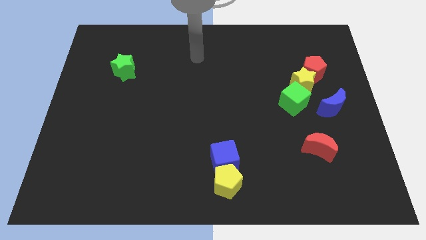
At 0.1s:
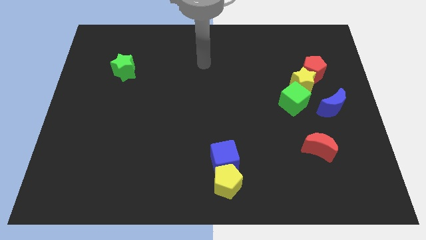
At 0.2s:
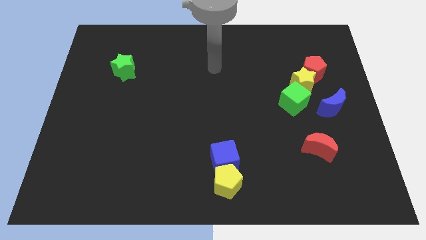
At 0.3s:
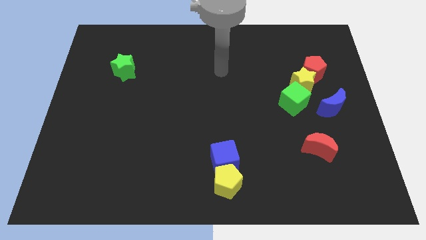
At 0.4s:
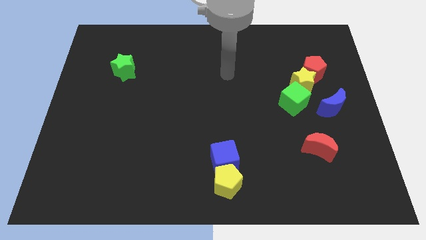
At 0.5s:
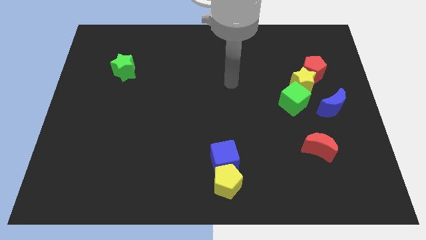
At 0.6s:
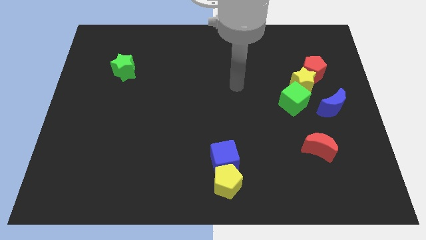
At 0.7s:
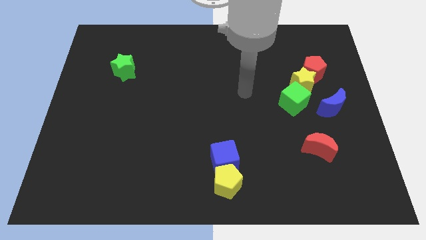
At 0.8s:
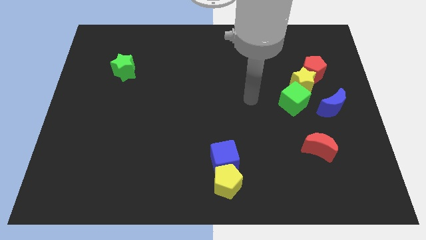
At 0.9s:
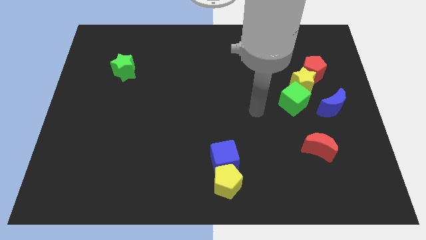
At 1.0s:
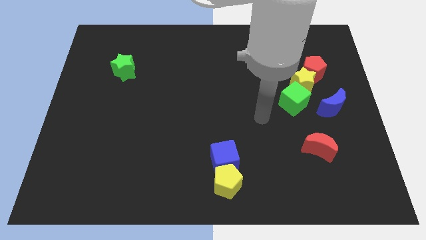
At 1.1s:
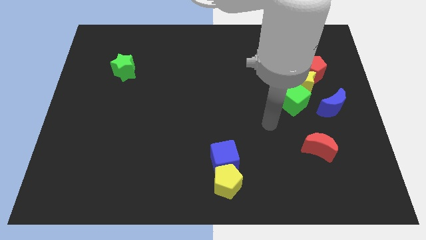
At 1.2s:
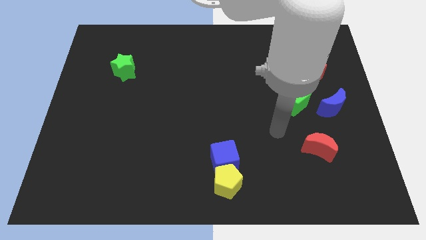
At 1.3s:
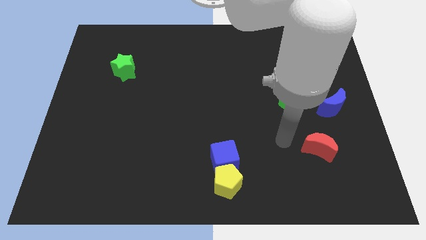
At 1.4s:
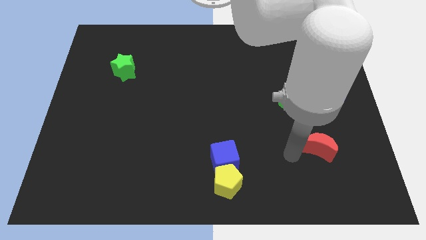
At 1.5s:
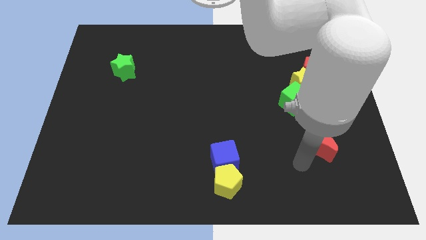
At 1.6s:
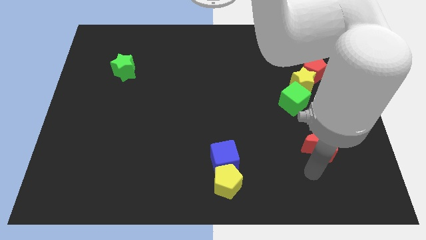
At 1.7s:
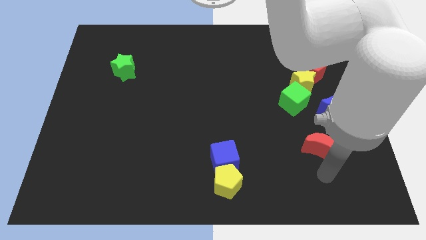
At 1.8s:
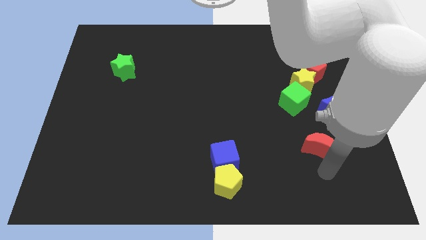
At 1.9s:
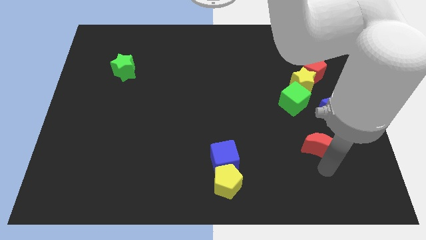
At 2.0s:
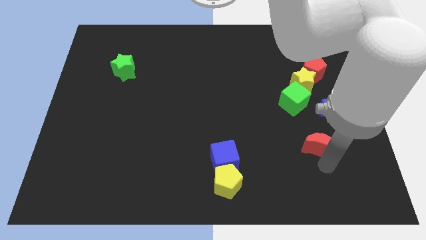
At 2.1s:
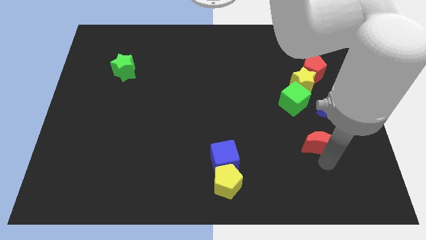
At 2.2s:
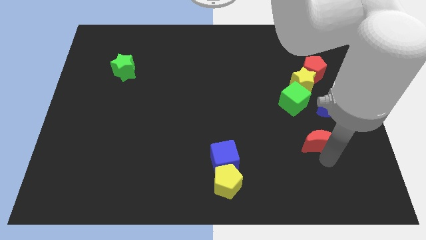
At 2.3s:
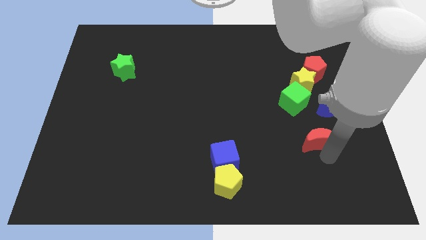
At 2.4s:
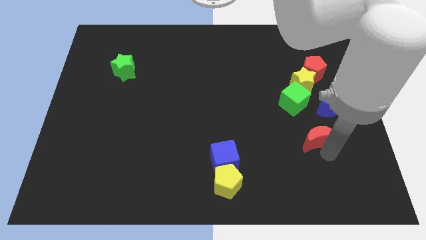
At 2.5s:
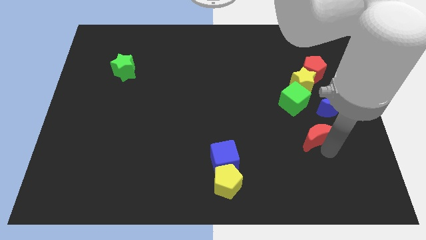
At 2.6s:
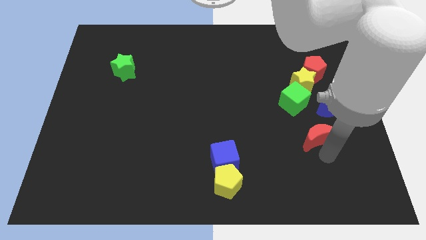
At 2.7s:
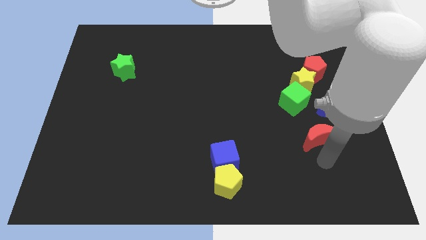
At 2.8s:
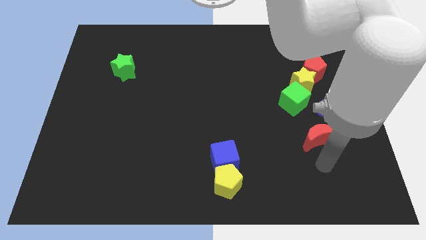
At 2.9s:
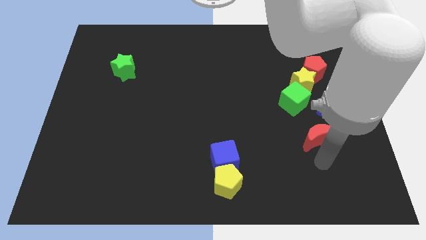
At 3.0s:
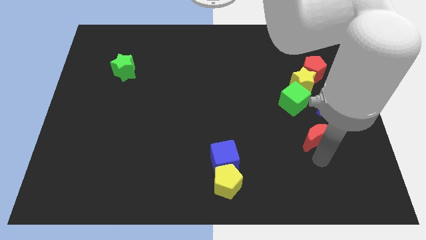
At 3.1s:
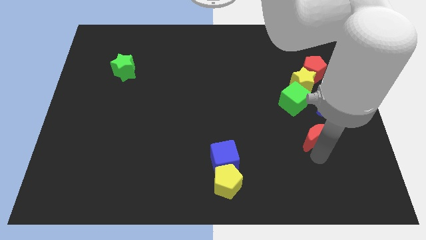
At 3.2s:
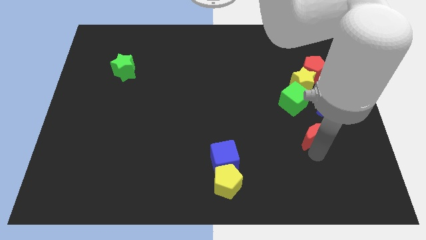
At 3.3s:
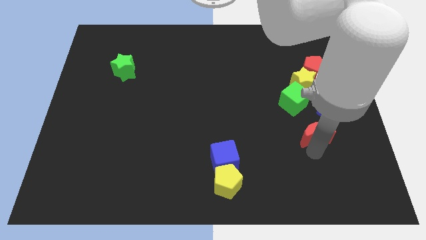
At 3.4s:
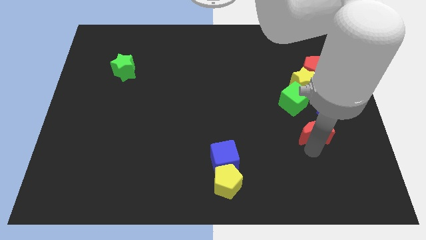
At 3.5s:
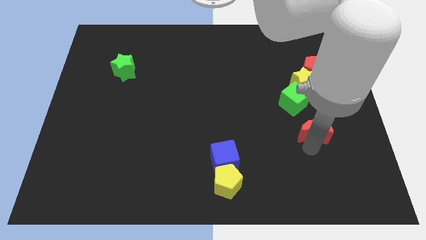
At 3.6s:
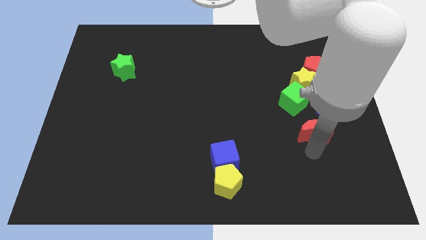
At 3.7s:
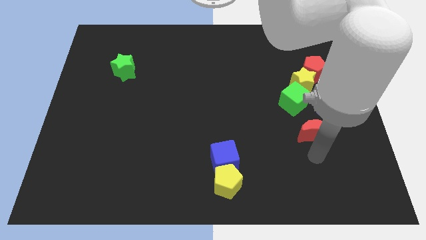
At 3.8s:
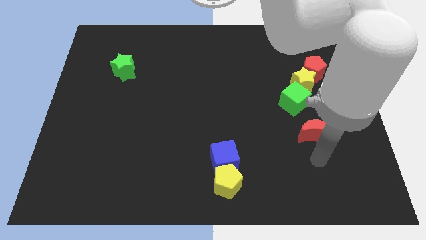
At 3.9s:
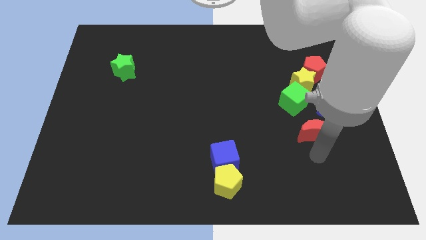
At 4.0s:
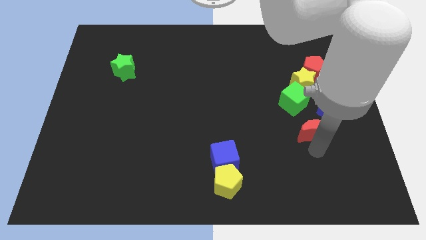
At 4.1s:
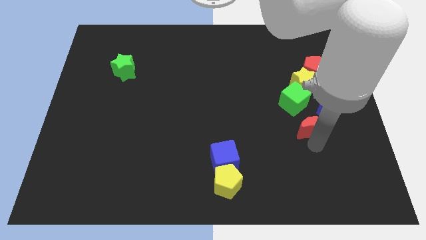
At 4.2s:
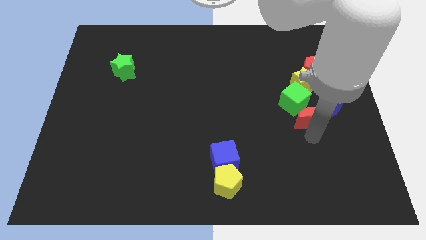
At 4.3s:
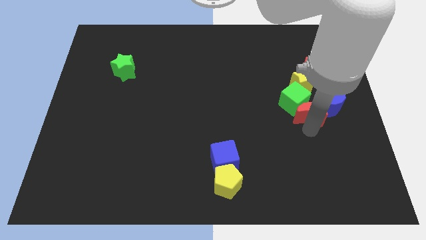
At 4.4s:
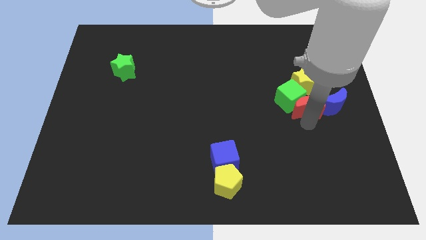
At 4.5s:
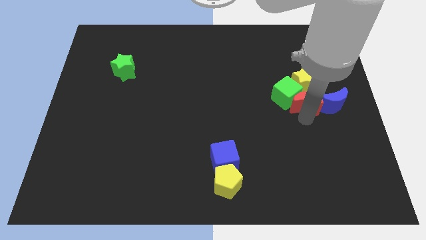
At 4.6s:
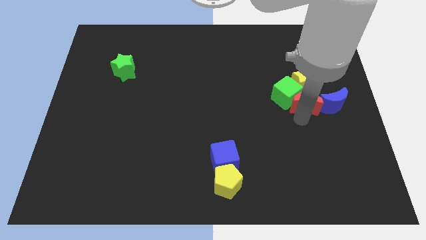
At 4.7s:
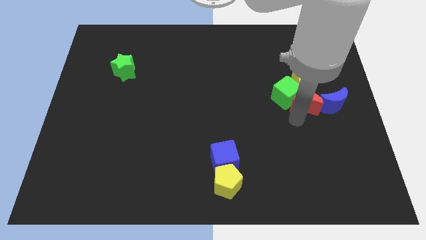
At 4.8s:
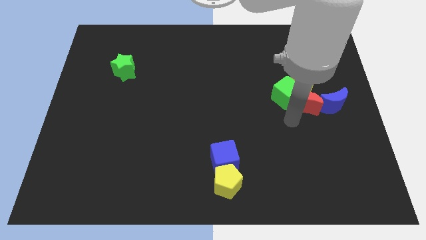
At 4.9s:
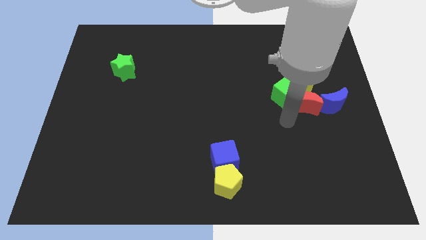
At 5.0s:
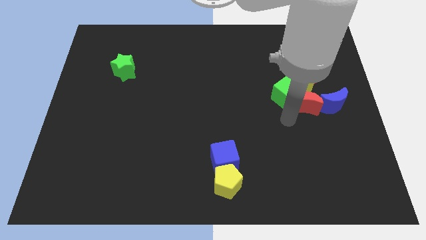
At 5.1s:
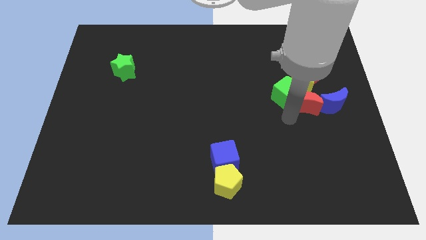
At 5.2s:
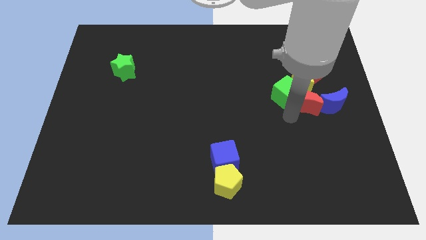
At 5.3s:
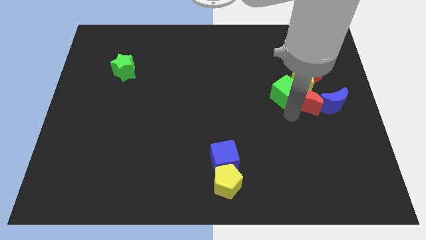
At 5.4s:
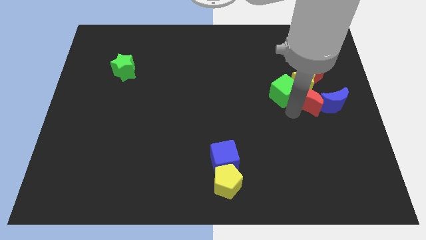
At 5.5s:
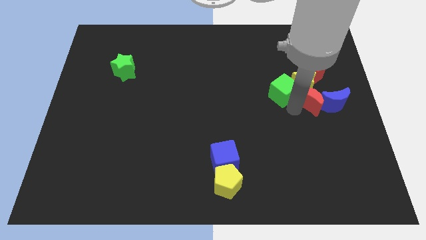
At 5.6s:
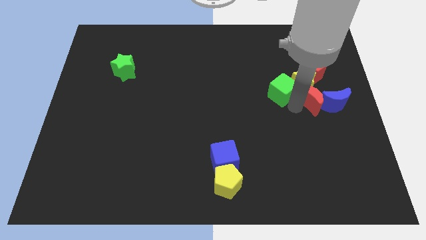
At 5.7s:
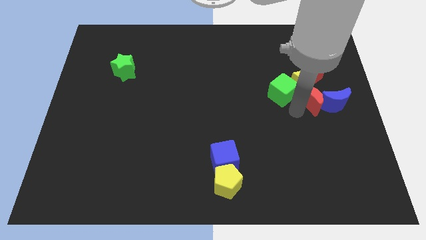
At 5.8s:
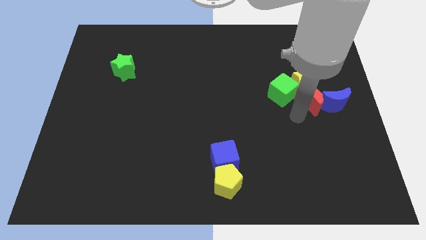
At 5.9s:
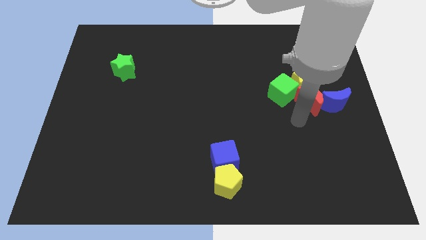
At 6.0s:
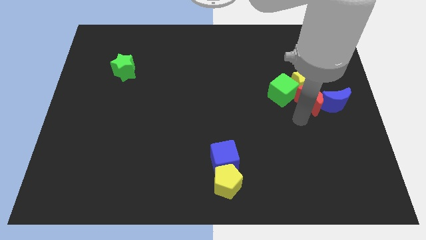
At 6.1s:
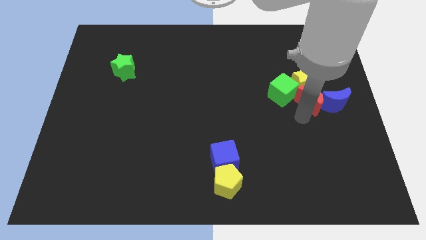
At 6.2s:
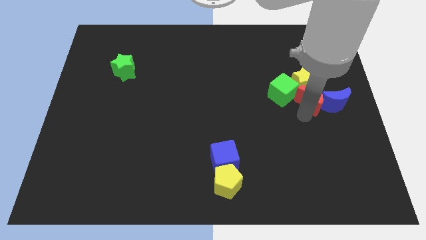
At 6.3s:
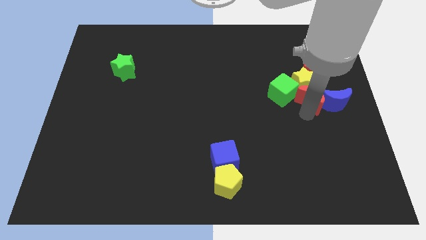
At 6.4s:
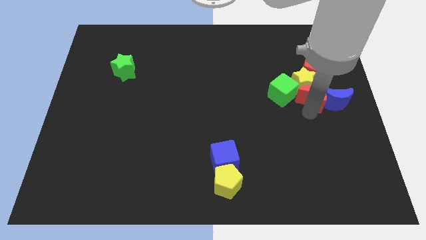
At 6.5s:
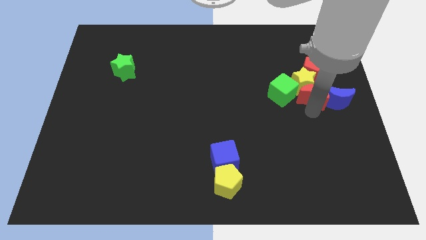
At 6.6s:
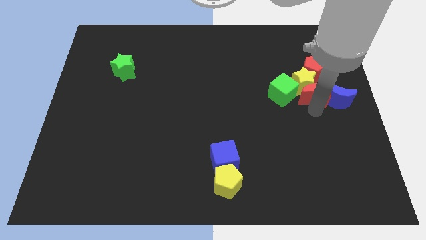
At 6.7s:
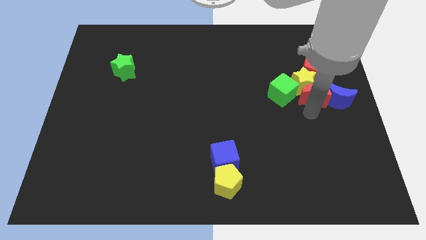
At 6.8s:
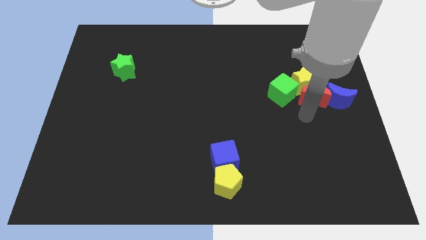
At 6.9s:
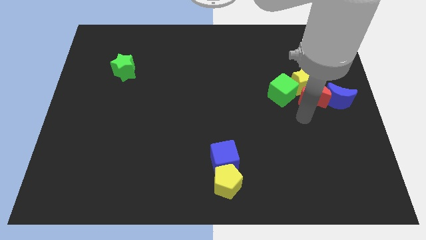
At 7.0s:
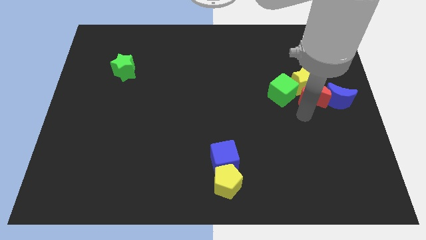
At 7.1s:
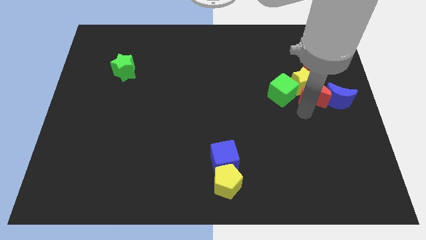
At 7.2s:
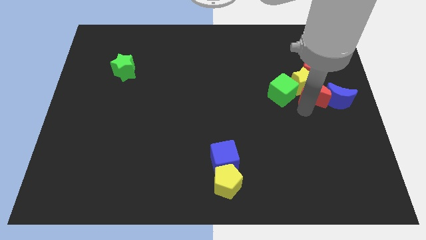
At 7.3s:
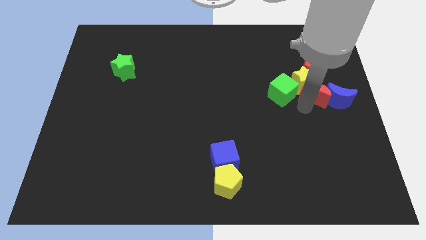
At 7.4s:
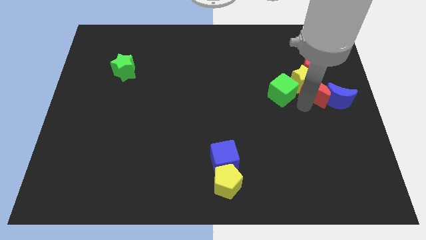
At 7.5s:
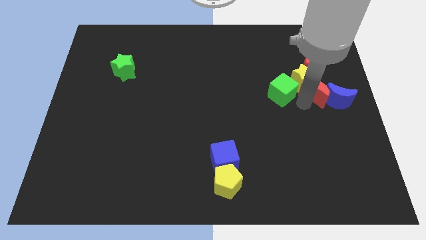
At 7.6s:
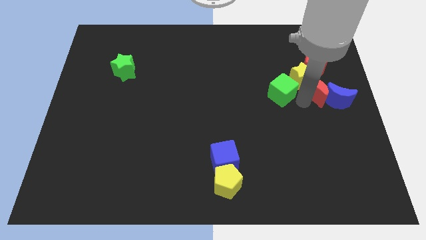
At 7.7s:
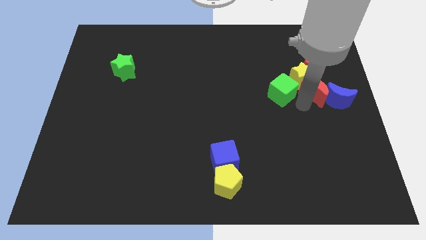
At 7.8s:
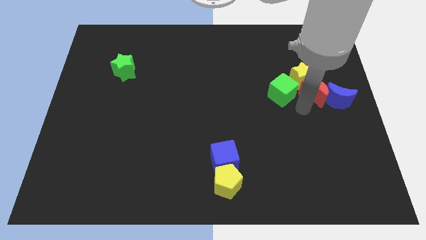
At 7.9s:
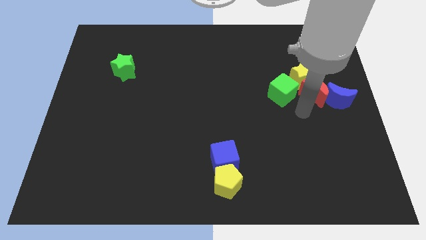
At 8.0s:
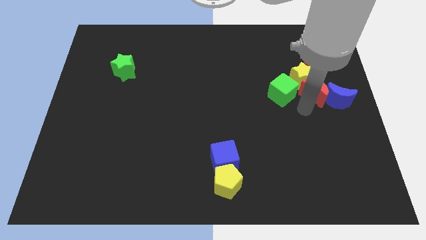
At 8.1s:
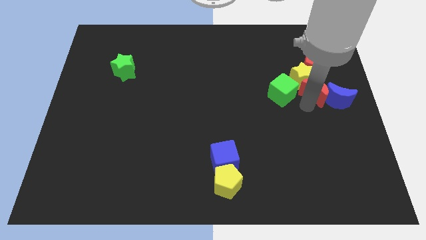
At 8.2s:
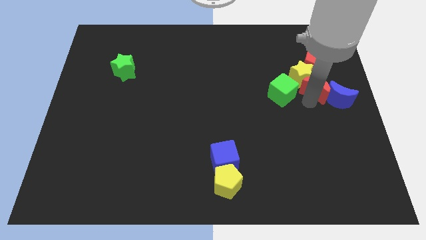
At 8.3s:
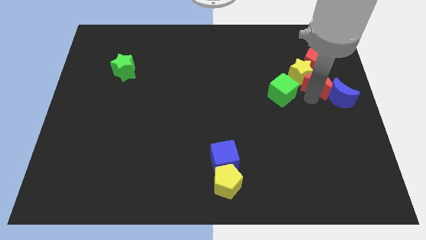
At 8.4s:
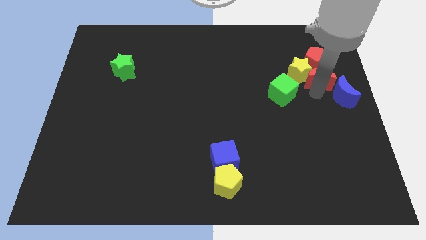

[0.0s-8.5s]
put the red moon close to the red pentagon
